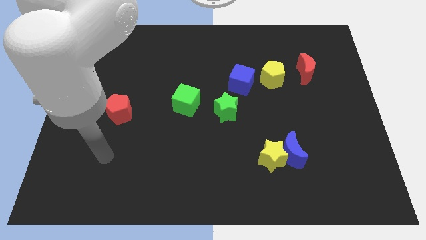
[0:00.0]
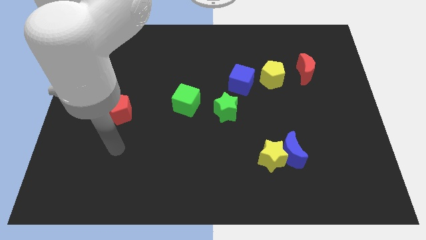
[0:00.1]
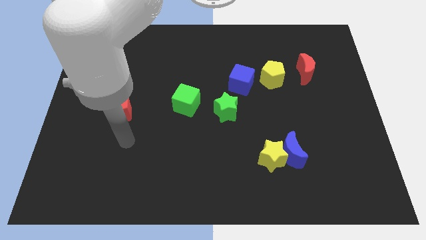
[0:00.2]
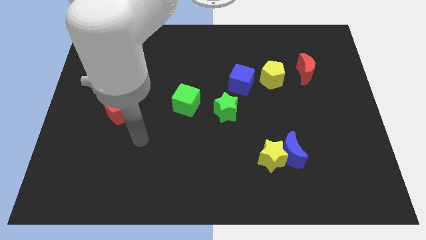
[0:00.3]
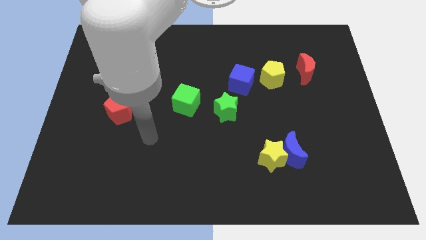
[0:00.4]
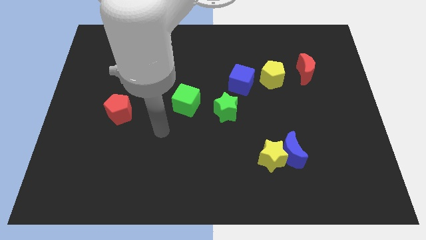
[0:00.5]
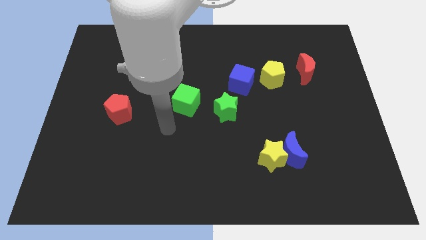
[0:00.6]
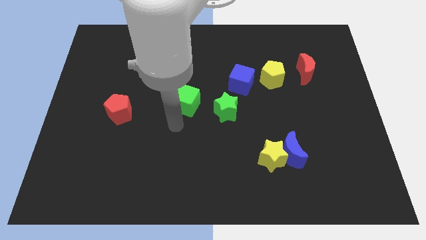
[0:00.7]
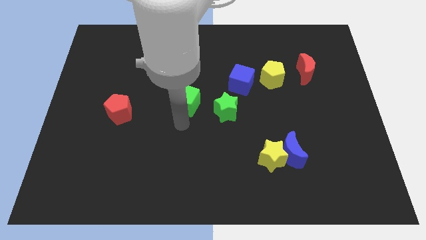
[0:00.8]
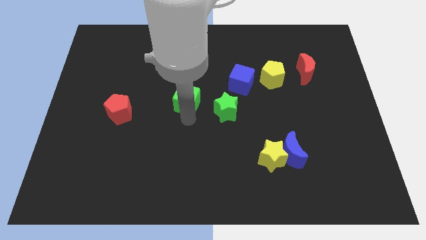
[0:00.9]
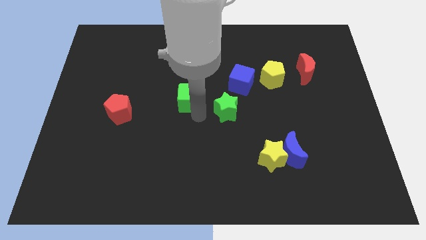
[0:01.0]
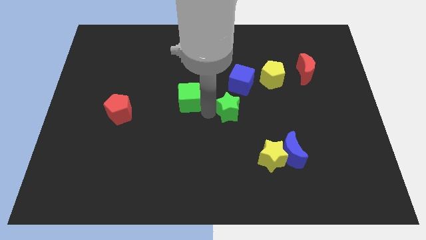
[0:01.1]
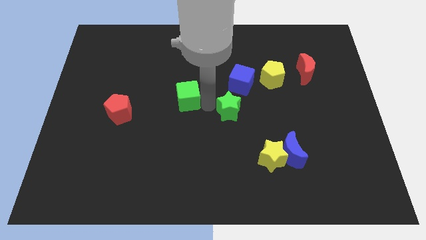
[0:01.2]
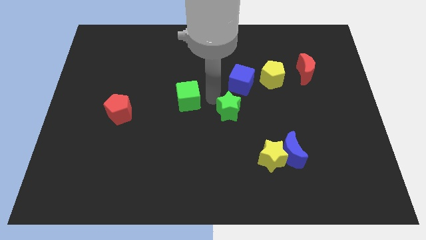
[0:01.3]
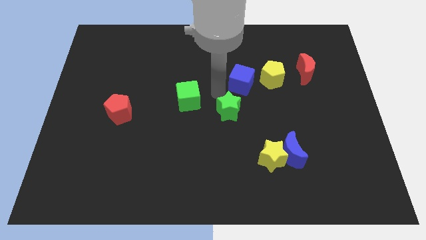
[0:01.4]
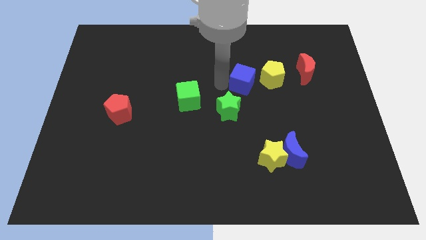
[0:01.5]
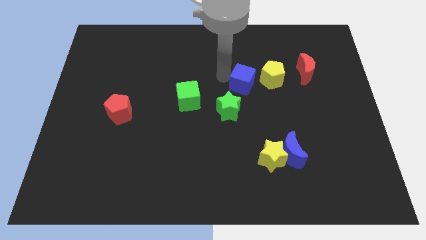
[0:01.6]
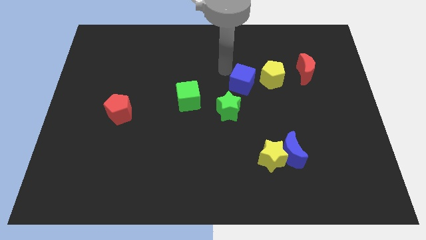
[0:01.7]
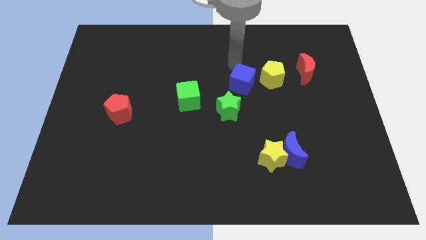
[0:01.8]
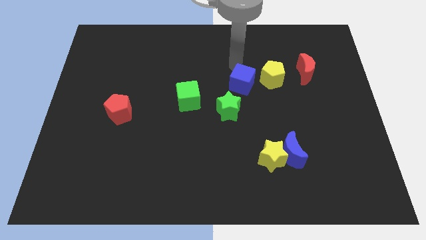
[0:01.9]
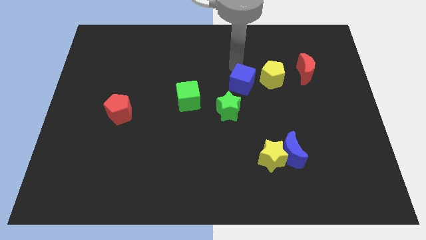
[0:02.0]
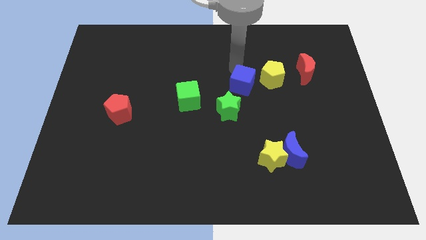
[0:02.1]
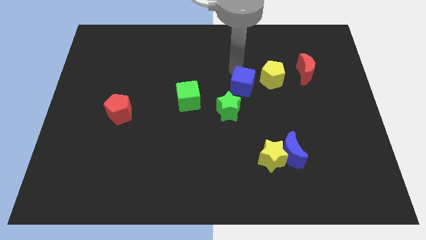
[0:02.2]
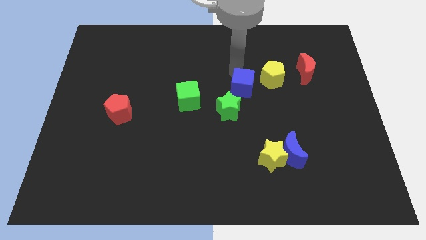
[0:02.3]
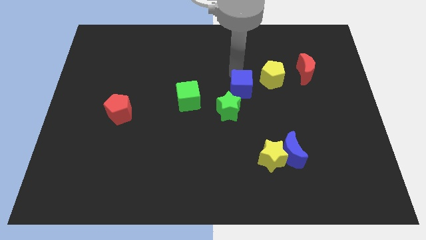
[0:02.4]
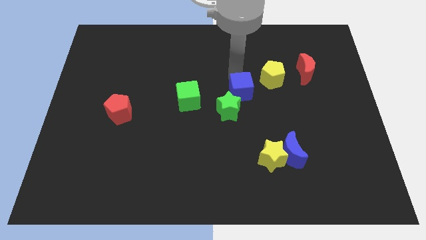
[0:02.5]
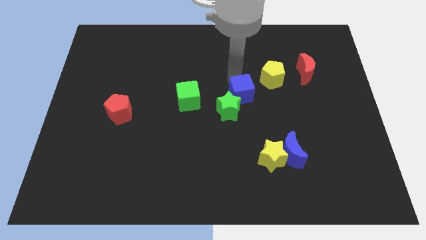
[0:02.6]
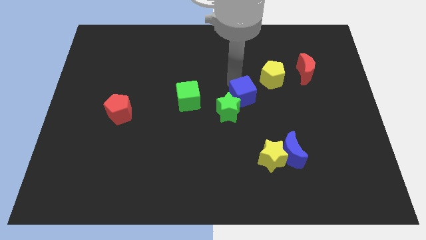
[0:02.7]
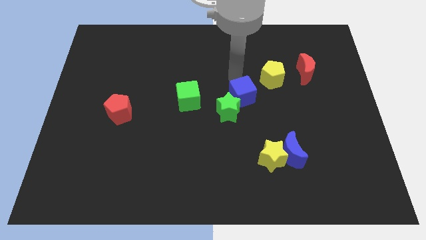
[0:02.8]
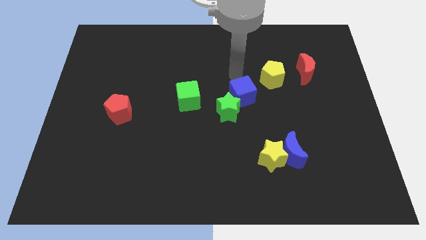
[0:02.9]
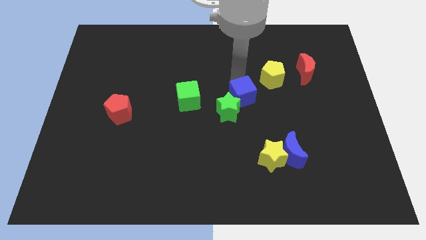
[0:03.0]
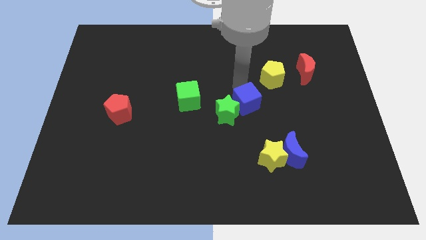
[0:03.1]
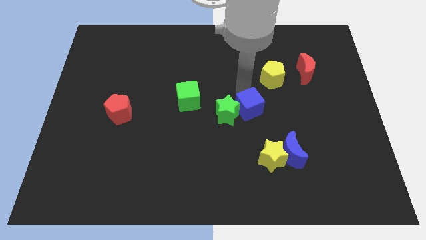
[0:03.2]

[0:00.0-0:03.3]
slide the blue cube a little down

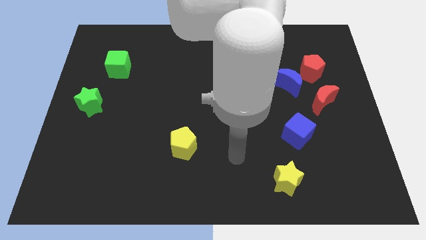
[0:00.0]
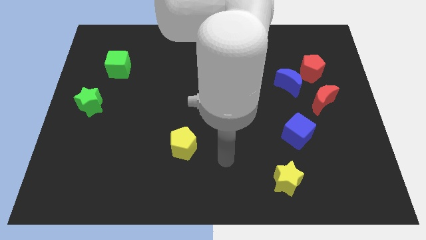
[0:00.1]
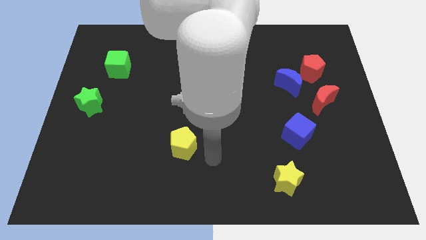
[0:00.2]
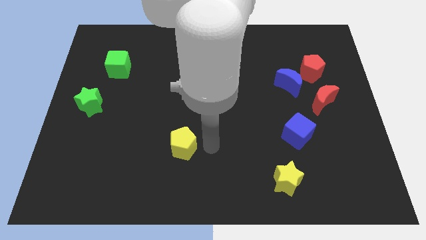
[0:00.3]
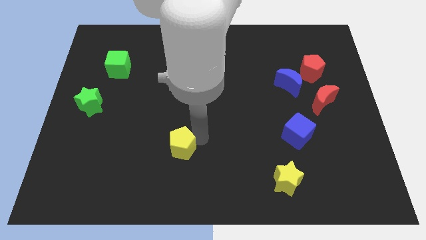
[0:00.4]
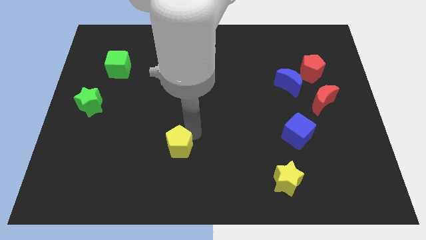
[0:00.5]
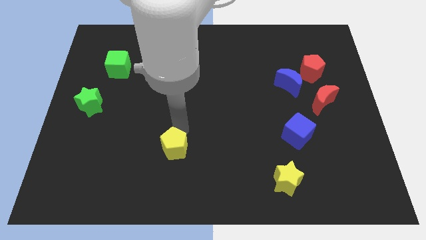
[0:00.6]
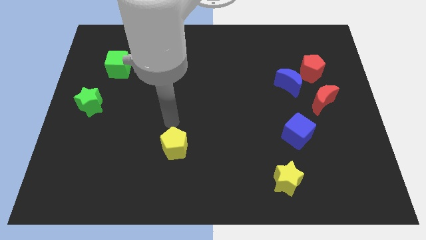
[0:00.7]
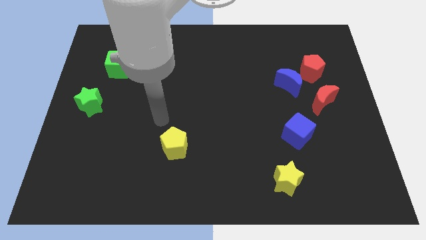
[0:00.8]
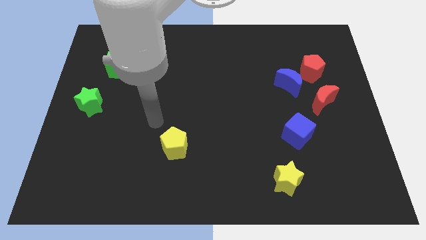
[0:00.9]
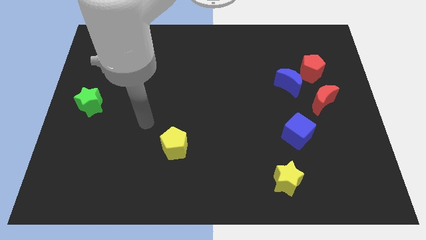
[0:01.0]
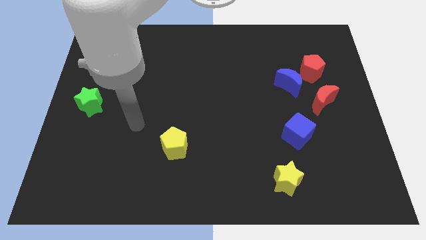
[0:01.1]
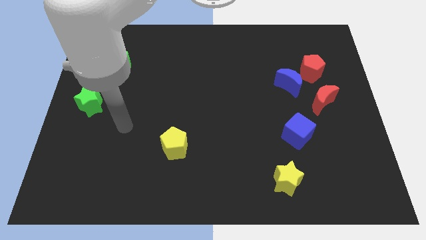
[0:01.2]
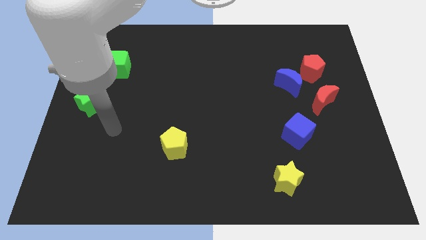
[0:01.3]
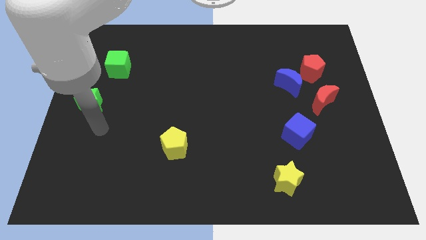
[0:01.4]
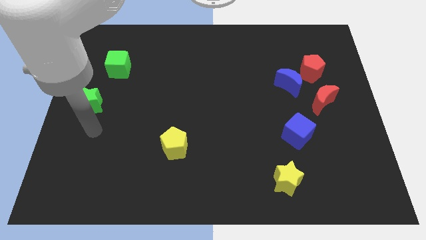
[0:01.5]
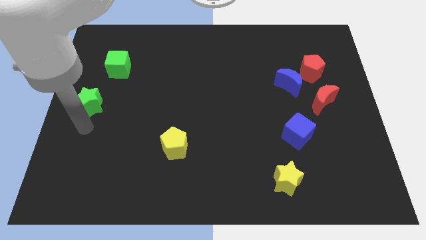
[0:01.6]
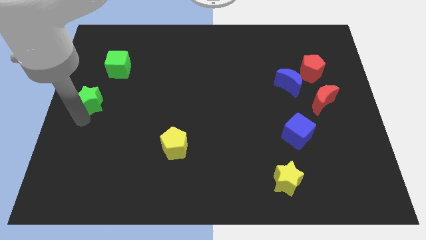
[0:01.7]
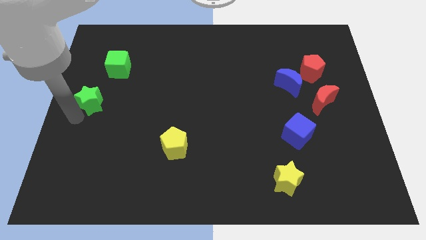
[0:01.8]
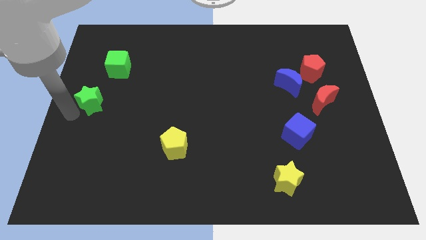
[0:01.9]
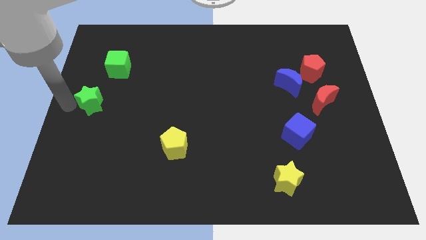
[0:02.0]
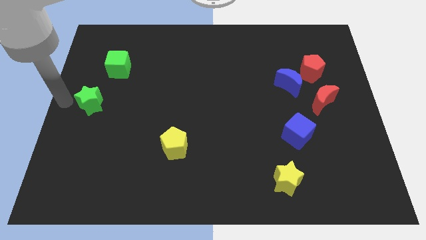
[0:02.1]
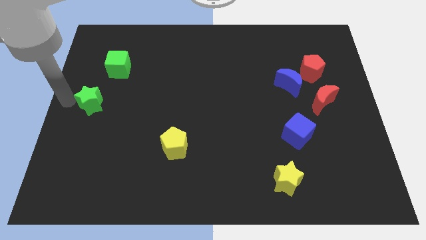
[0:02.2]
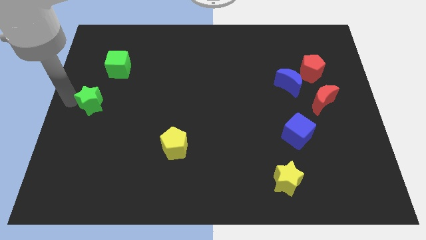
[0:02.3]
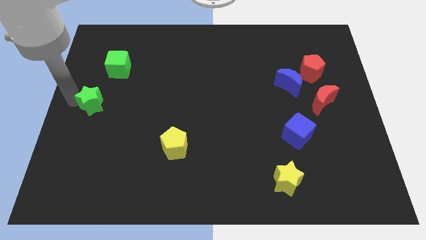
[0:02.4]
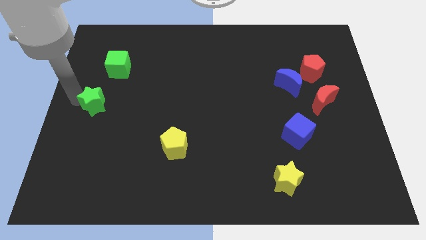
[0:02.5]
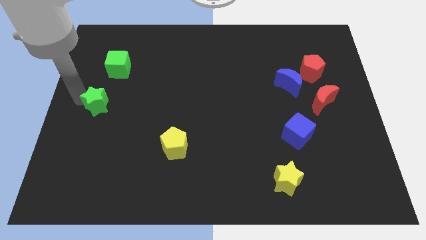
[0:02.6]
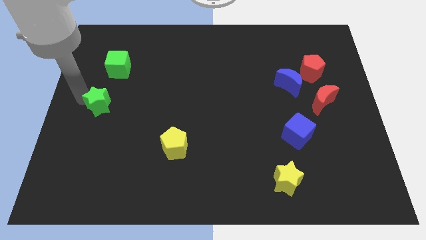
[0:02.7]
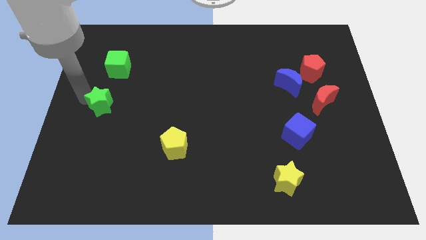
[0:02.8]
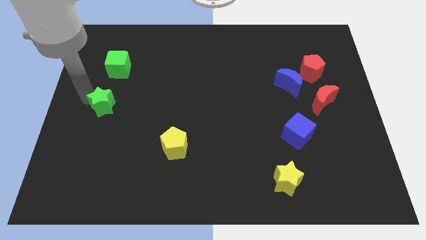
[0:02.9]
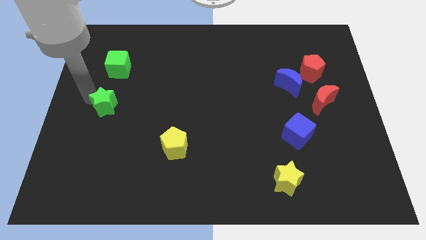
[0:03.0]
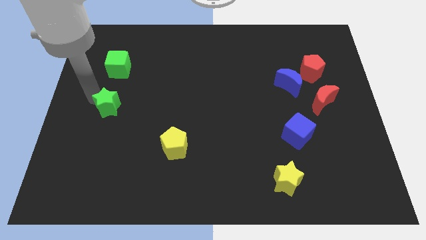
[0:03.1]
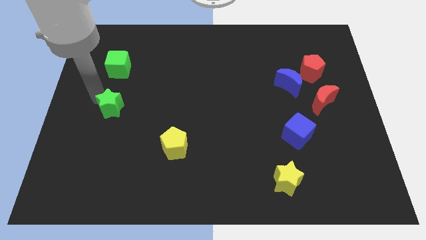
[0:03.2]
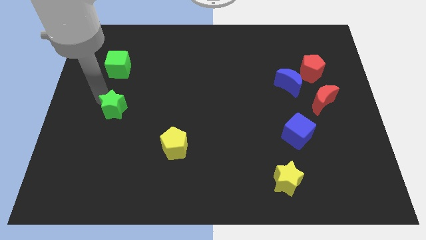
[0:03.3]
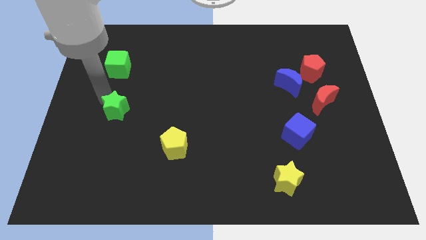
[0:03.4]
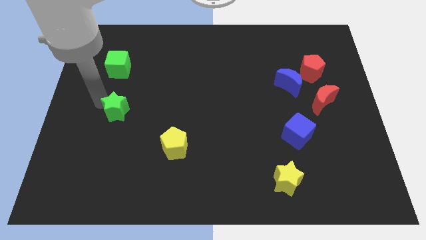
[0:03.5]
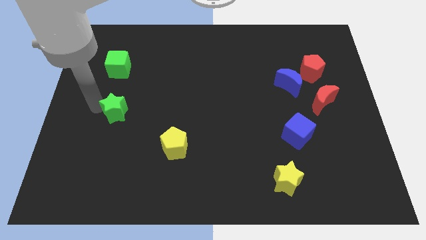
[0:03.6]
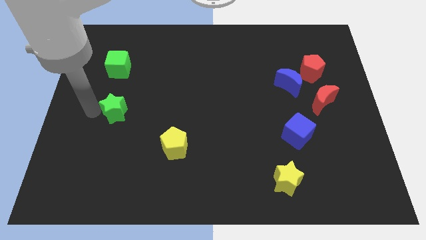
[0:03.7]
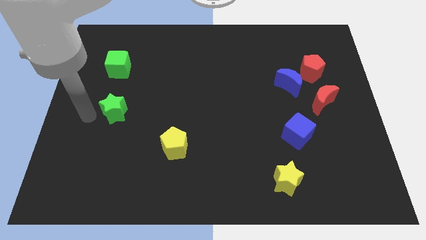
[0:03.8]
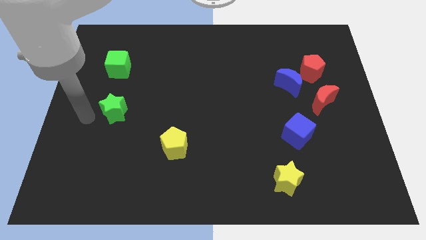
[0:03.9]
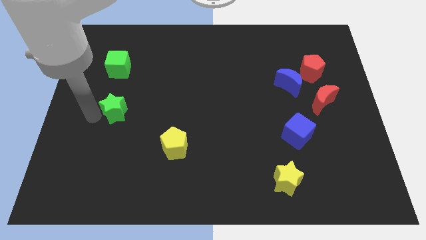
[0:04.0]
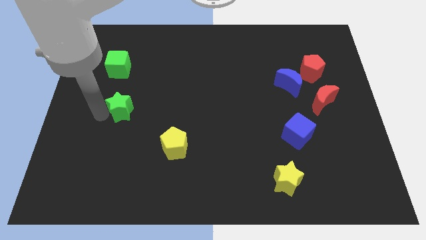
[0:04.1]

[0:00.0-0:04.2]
push the green star slightly right

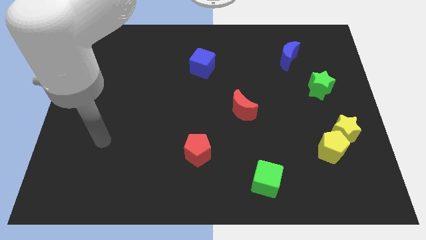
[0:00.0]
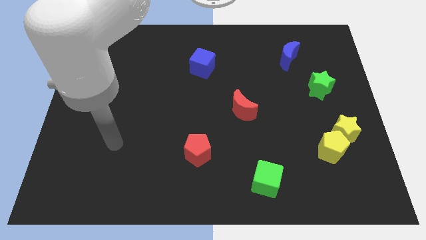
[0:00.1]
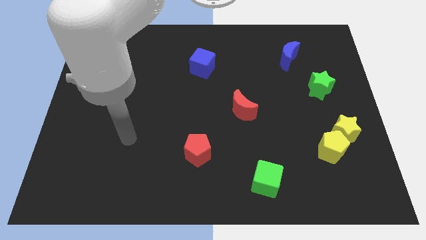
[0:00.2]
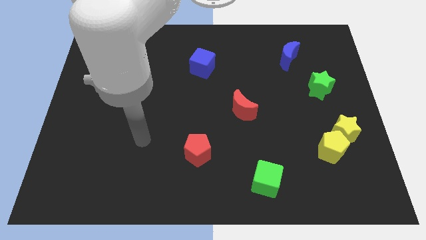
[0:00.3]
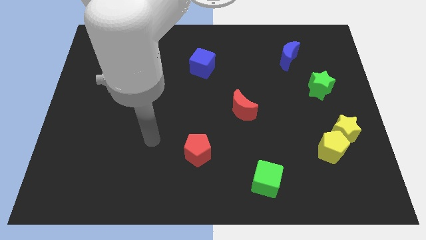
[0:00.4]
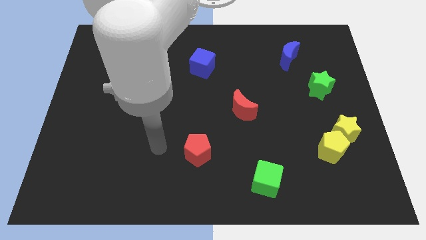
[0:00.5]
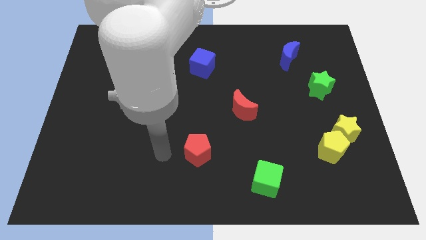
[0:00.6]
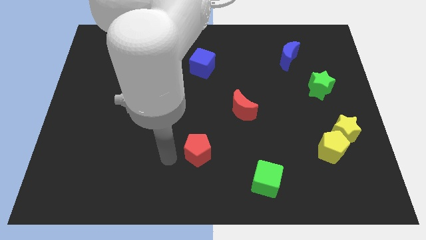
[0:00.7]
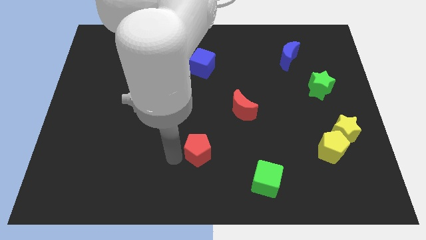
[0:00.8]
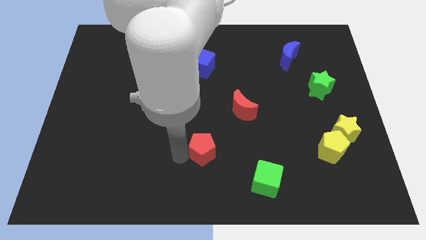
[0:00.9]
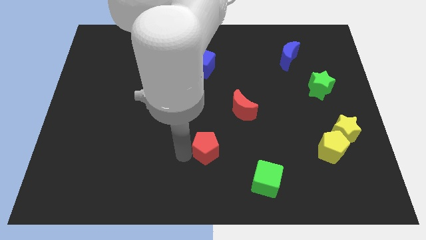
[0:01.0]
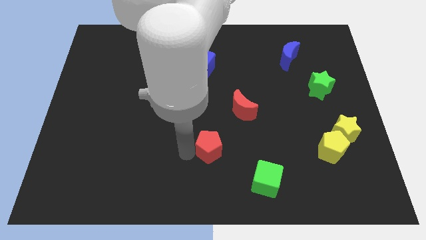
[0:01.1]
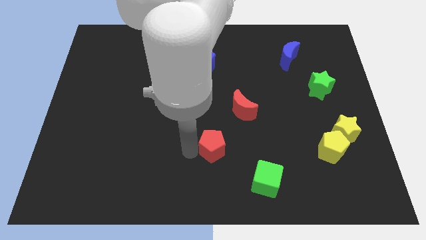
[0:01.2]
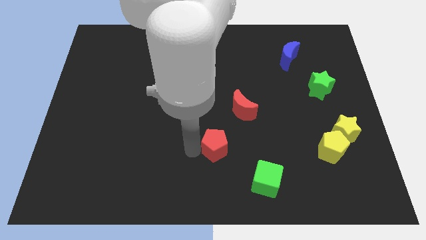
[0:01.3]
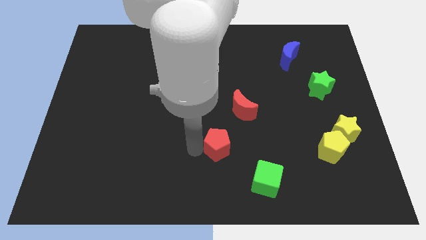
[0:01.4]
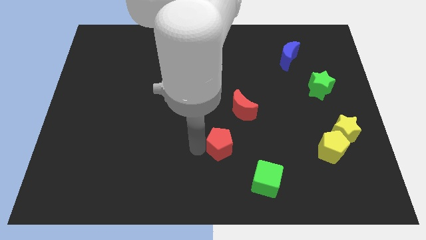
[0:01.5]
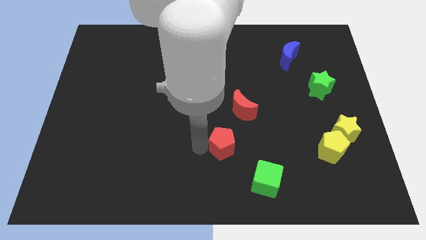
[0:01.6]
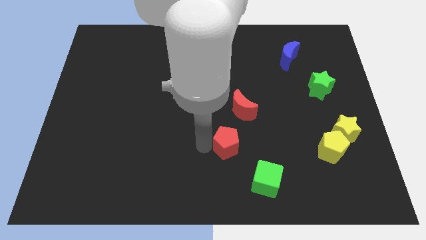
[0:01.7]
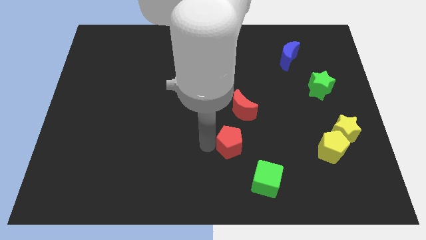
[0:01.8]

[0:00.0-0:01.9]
push the red pentagon slightly right
